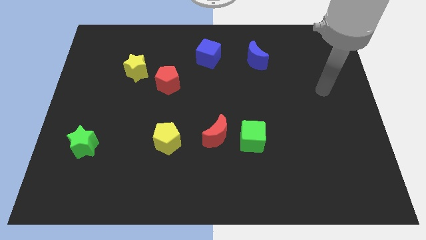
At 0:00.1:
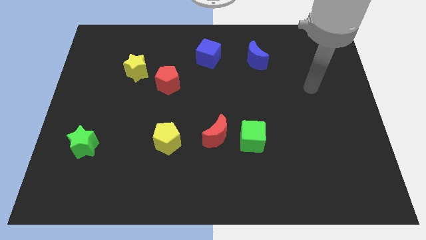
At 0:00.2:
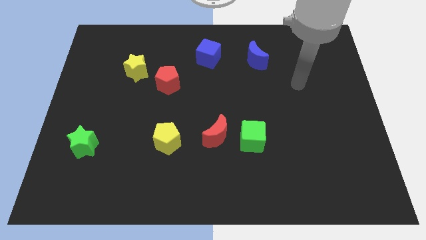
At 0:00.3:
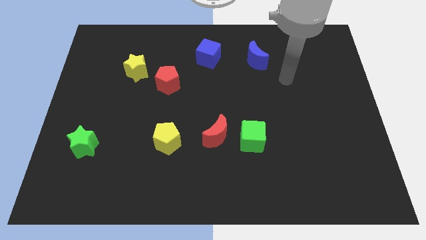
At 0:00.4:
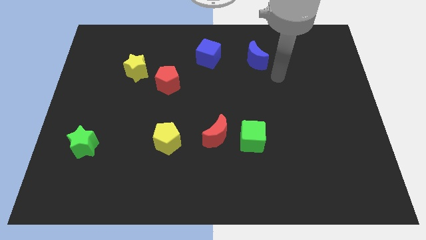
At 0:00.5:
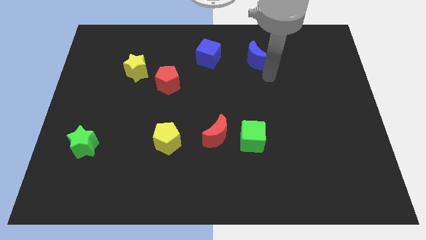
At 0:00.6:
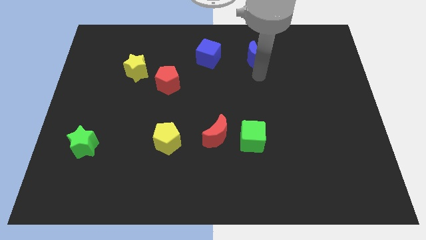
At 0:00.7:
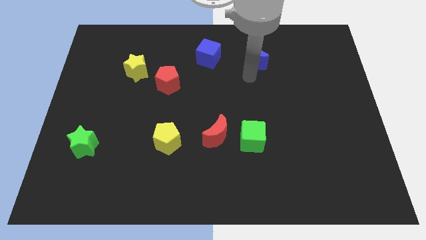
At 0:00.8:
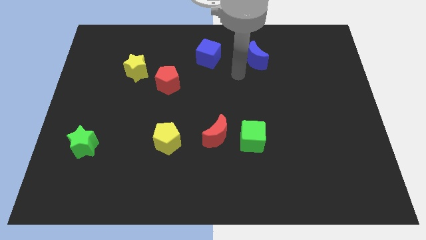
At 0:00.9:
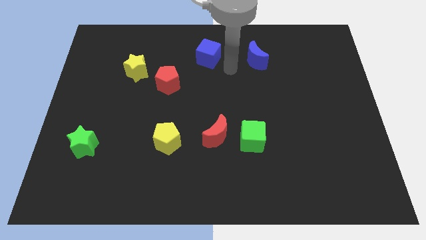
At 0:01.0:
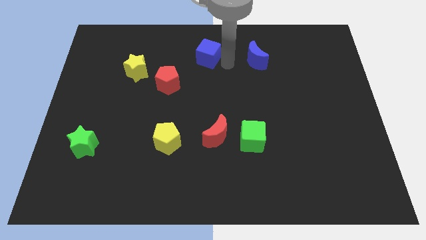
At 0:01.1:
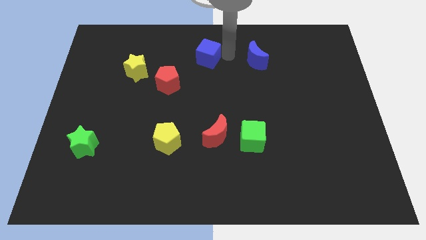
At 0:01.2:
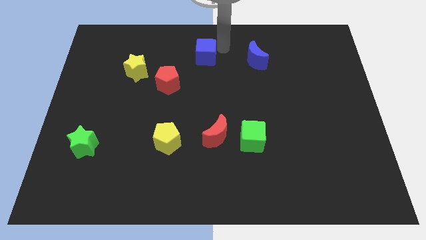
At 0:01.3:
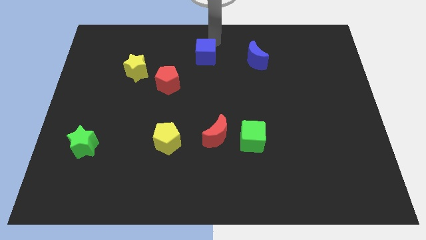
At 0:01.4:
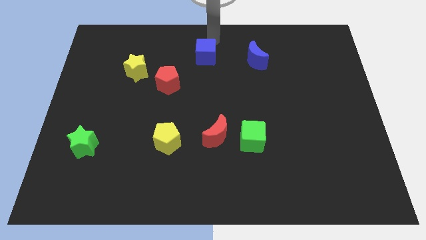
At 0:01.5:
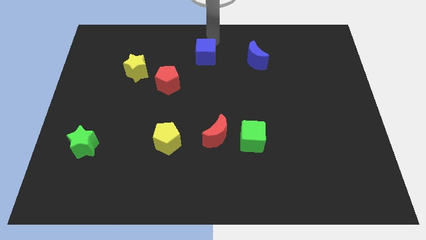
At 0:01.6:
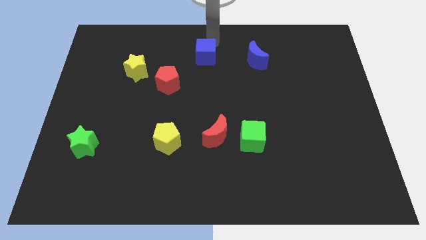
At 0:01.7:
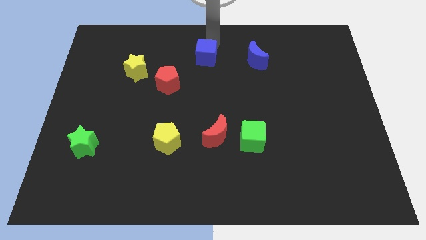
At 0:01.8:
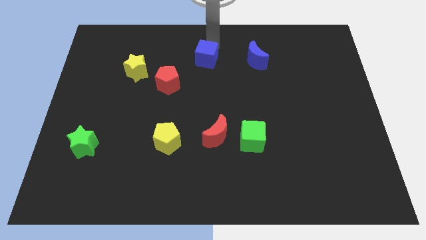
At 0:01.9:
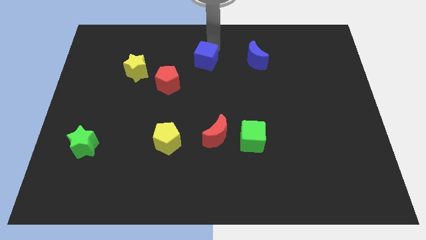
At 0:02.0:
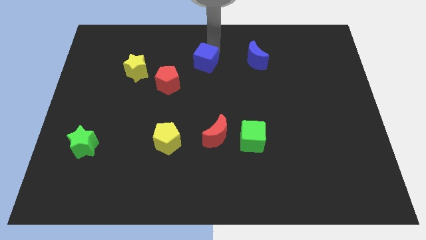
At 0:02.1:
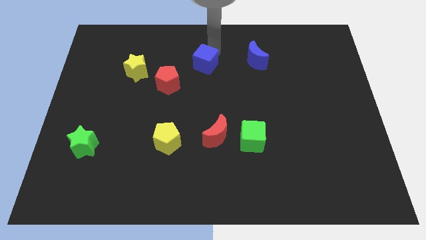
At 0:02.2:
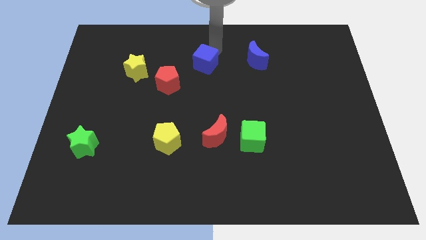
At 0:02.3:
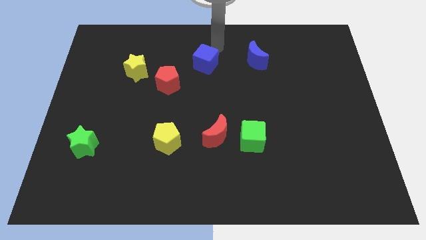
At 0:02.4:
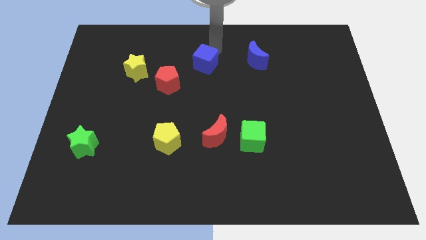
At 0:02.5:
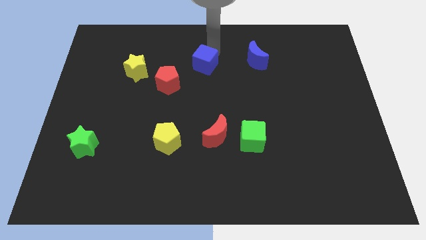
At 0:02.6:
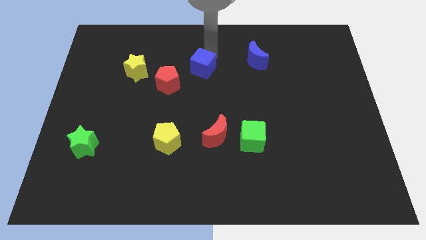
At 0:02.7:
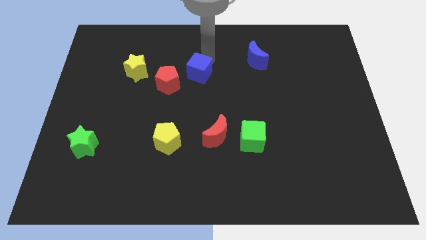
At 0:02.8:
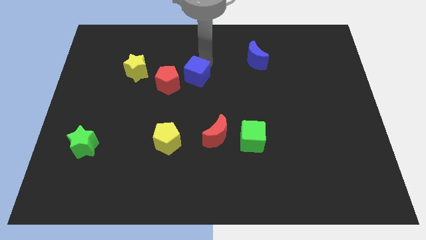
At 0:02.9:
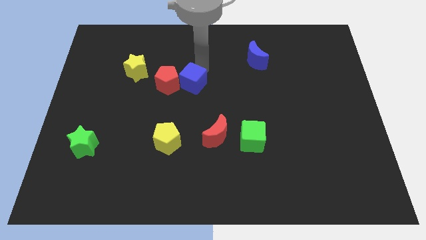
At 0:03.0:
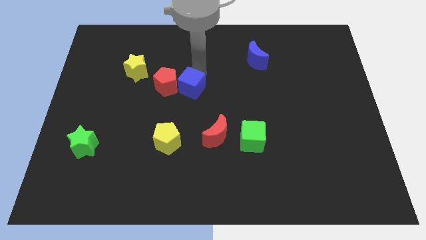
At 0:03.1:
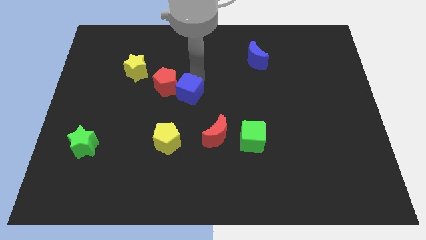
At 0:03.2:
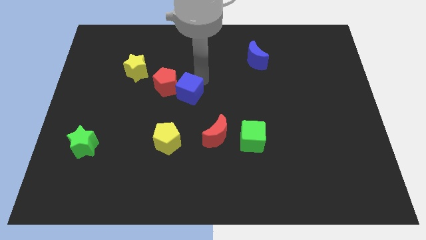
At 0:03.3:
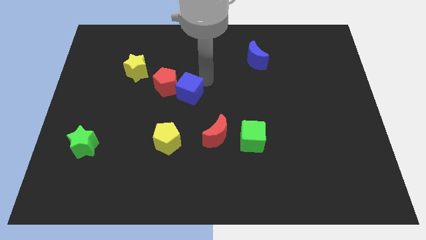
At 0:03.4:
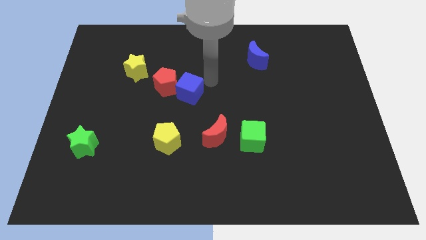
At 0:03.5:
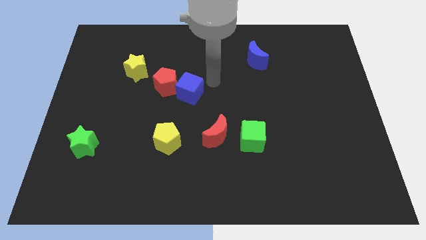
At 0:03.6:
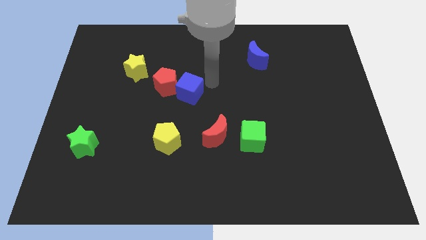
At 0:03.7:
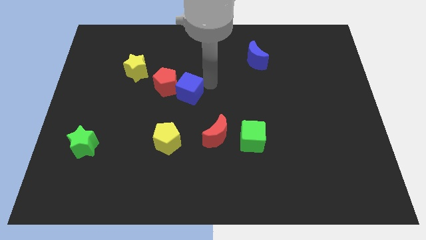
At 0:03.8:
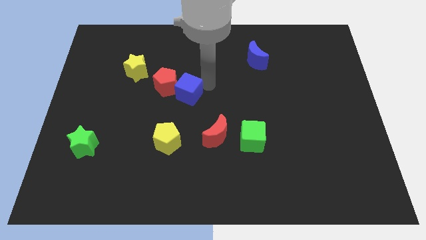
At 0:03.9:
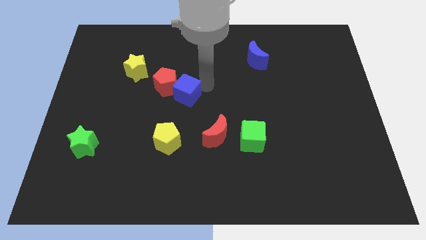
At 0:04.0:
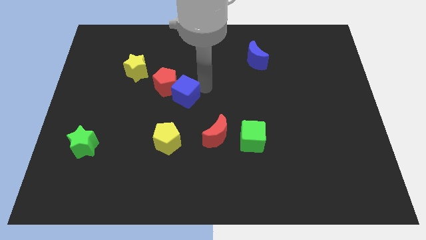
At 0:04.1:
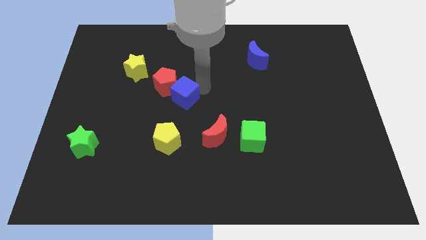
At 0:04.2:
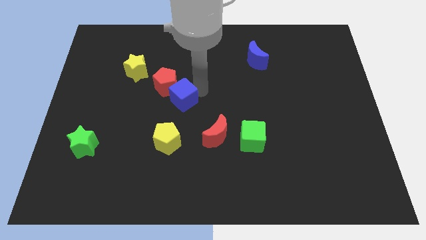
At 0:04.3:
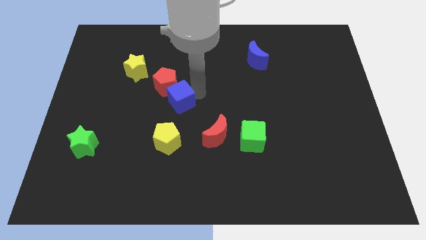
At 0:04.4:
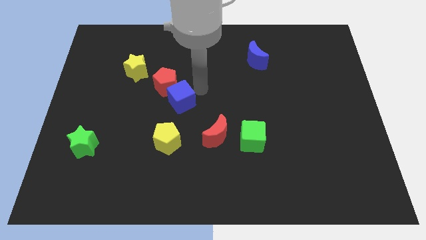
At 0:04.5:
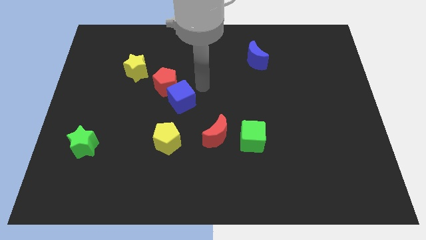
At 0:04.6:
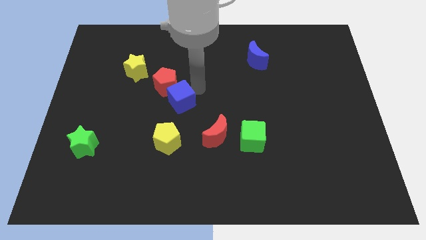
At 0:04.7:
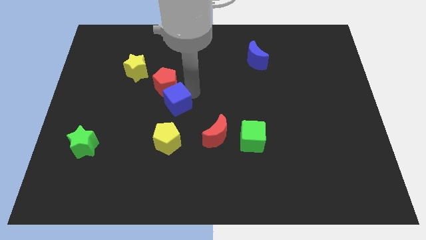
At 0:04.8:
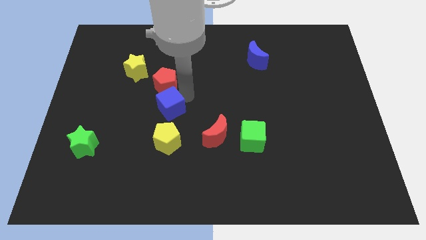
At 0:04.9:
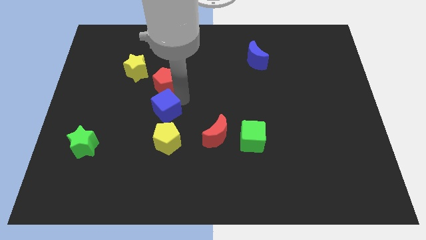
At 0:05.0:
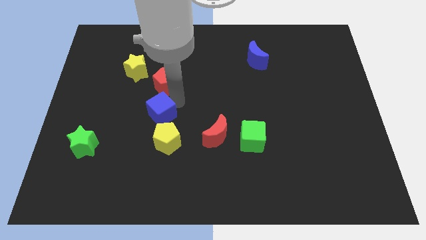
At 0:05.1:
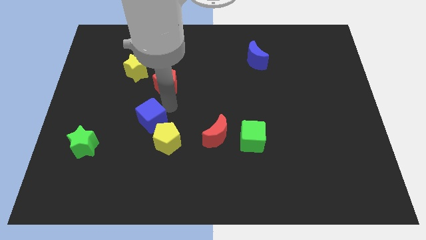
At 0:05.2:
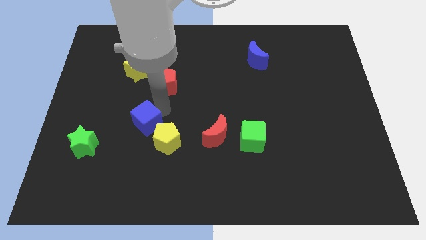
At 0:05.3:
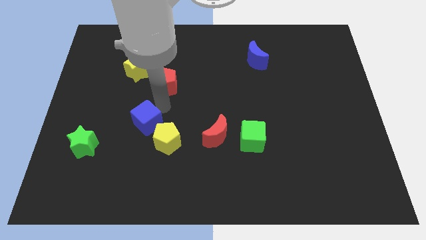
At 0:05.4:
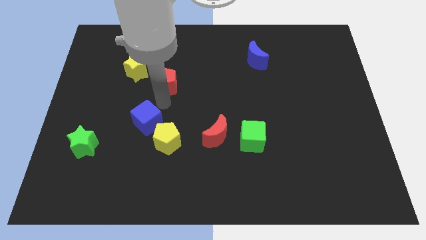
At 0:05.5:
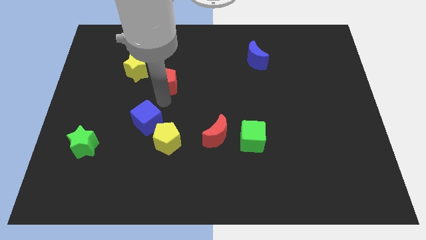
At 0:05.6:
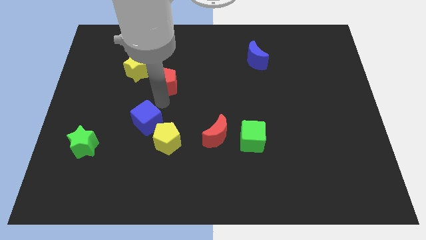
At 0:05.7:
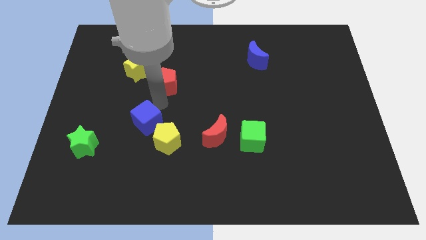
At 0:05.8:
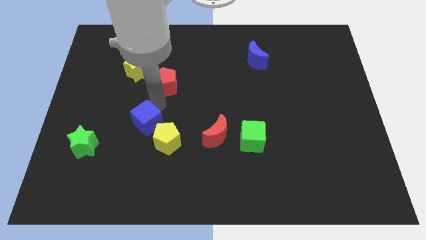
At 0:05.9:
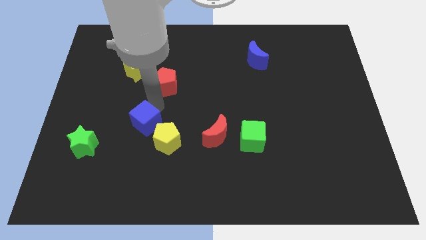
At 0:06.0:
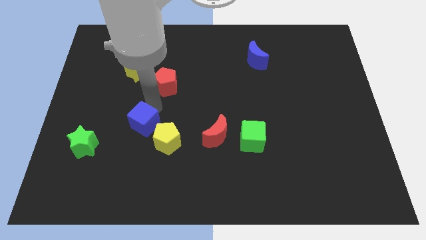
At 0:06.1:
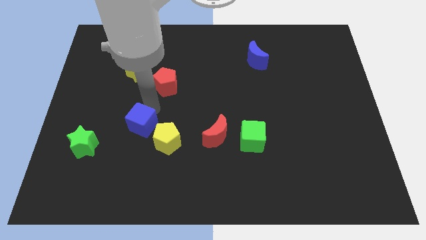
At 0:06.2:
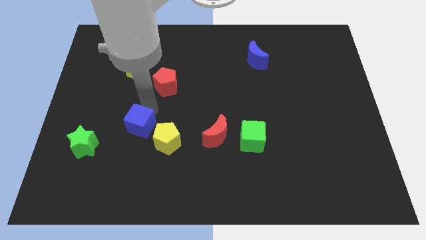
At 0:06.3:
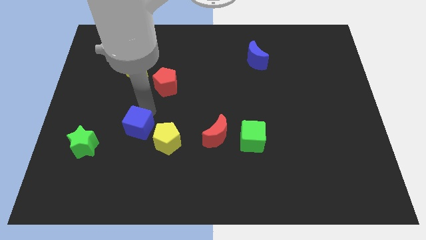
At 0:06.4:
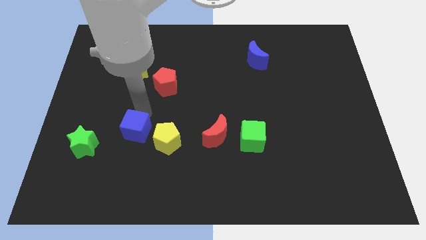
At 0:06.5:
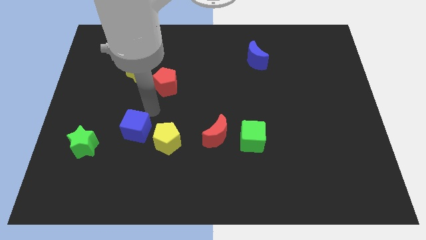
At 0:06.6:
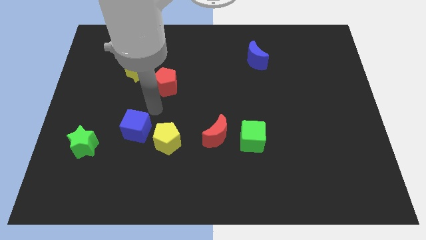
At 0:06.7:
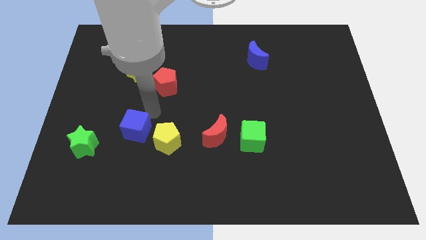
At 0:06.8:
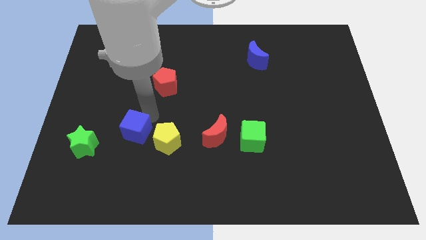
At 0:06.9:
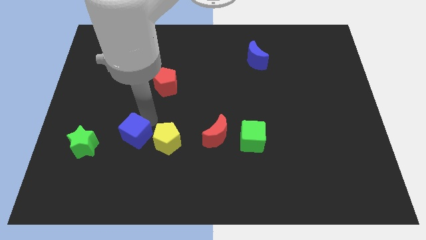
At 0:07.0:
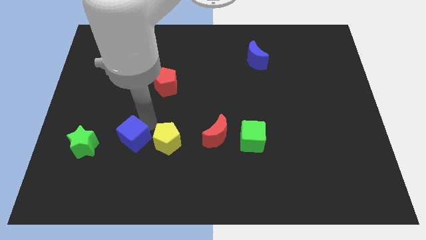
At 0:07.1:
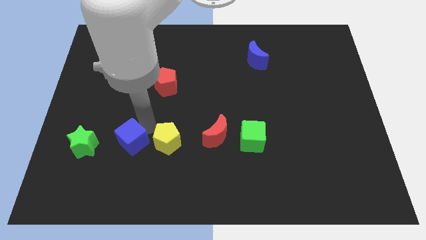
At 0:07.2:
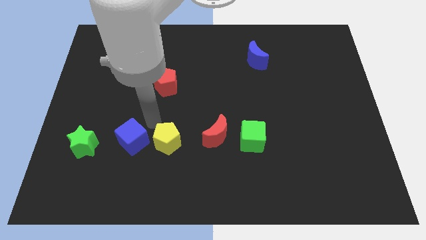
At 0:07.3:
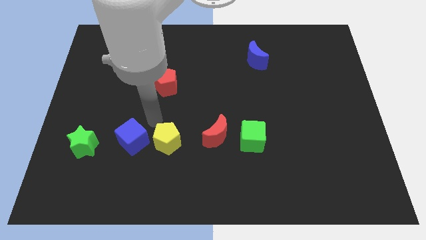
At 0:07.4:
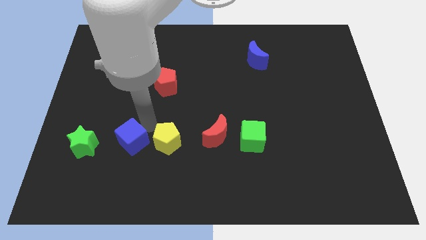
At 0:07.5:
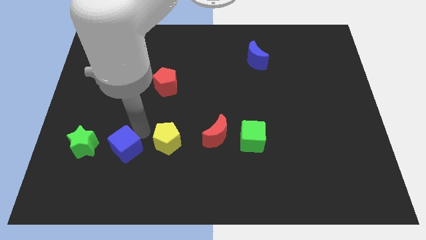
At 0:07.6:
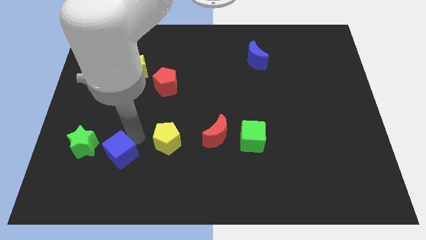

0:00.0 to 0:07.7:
move the blue cube diagonally down and to the right of the green star
